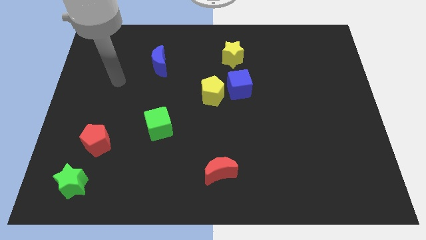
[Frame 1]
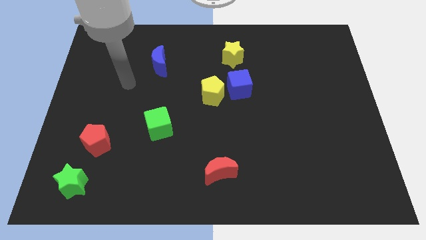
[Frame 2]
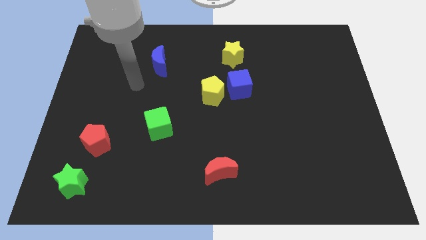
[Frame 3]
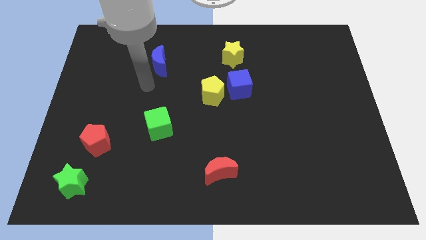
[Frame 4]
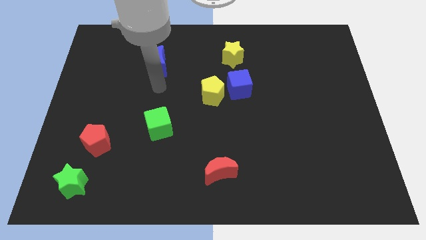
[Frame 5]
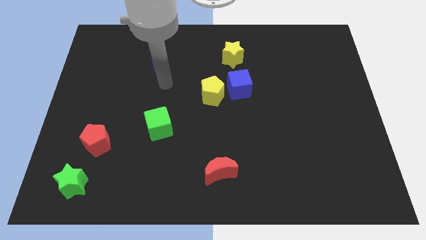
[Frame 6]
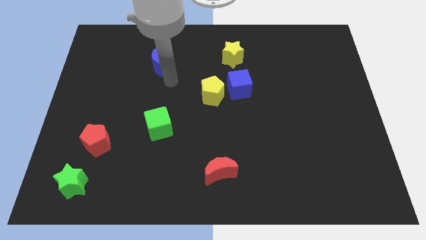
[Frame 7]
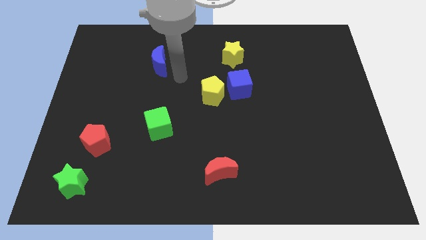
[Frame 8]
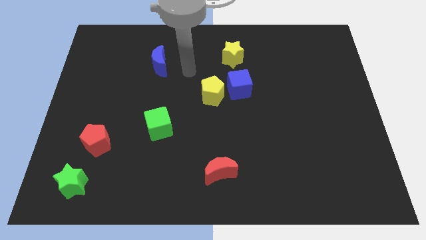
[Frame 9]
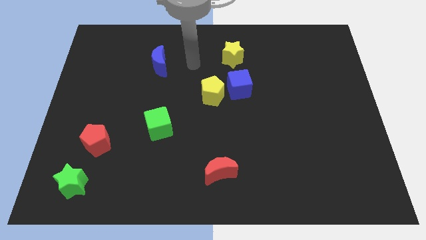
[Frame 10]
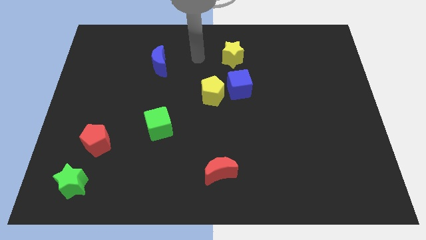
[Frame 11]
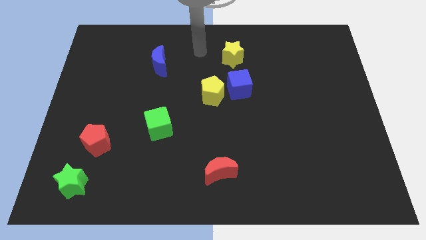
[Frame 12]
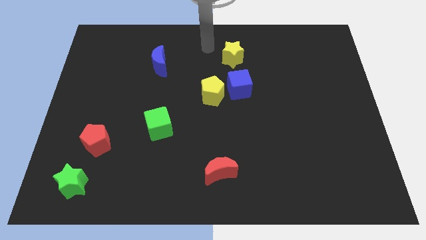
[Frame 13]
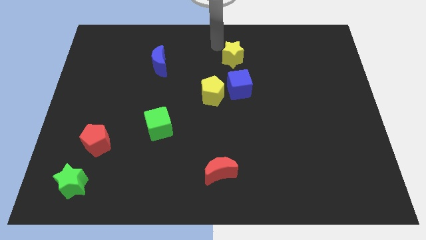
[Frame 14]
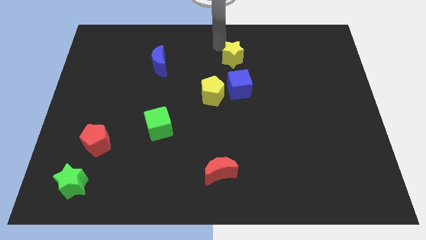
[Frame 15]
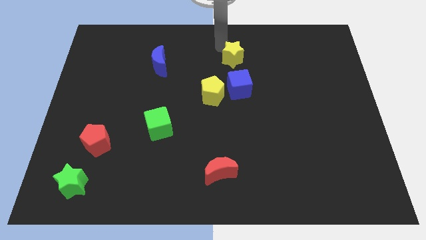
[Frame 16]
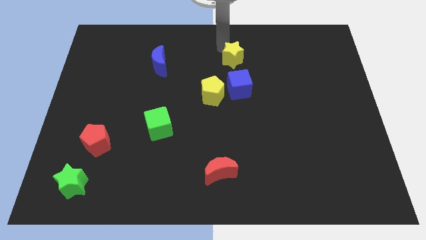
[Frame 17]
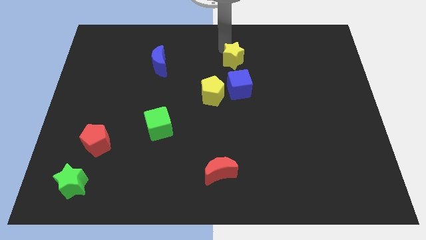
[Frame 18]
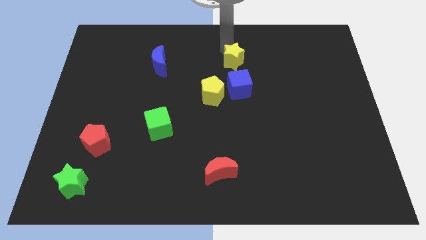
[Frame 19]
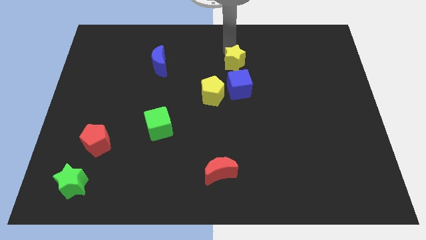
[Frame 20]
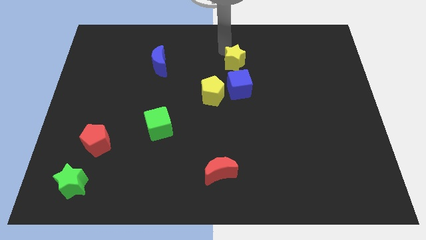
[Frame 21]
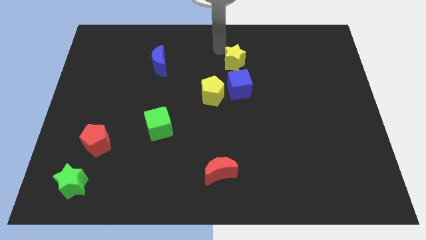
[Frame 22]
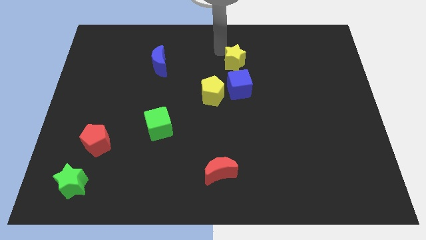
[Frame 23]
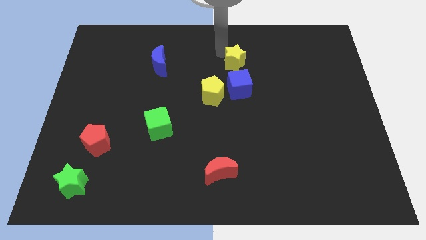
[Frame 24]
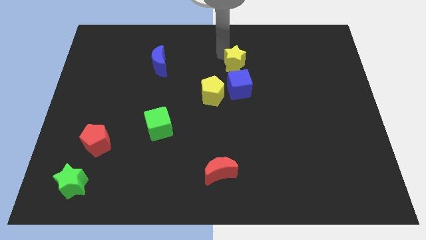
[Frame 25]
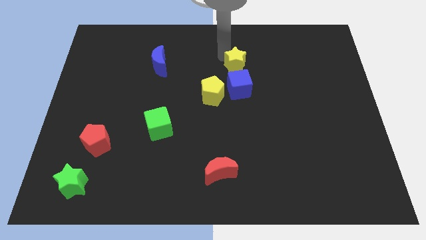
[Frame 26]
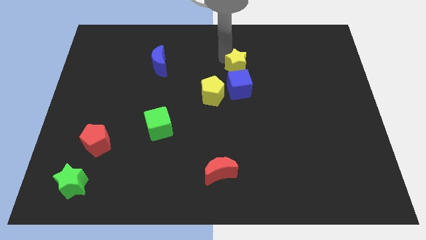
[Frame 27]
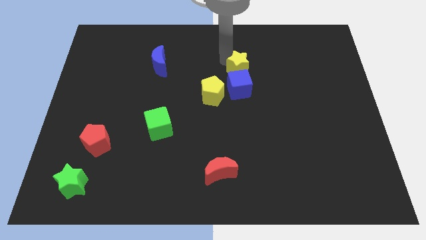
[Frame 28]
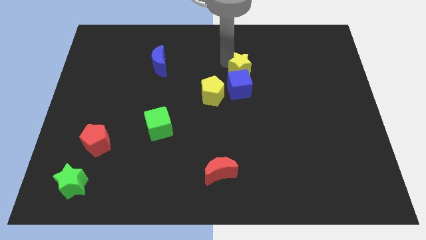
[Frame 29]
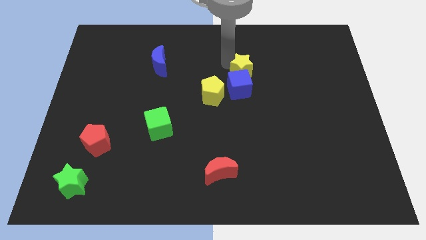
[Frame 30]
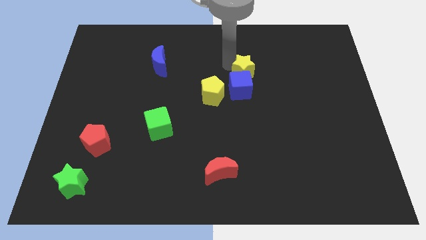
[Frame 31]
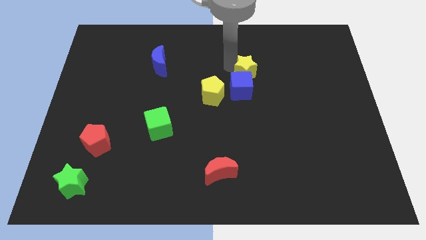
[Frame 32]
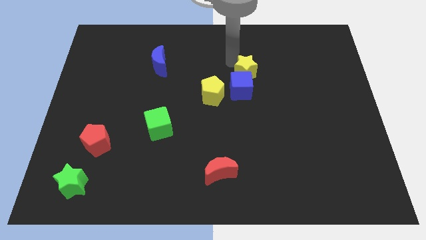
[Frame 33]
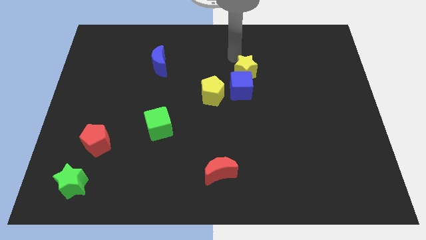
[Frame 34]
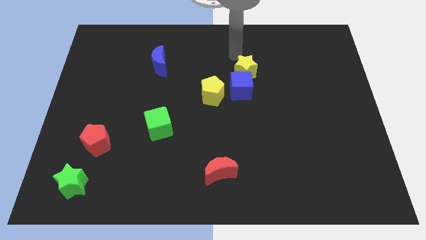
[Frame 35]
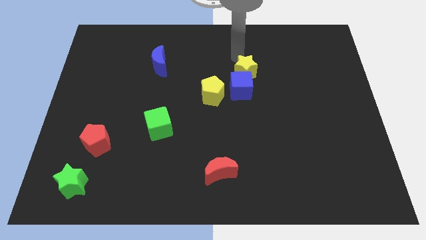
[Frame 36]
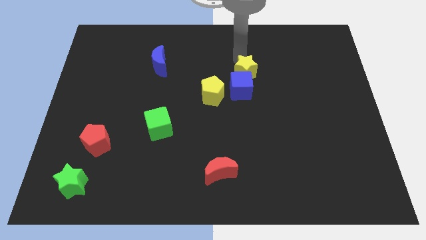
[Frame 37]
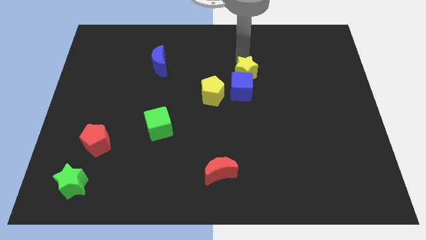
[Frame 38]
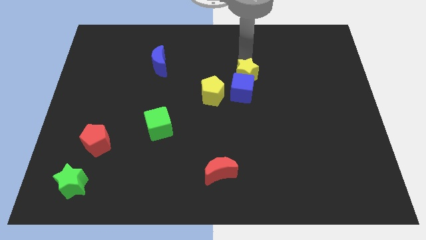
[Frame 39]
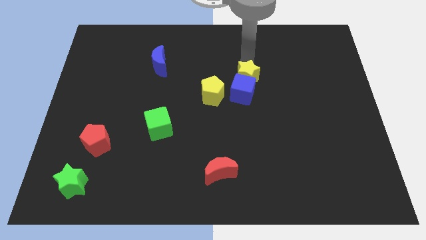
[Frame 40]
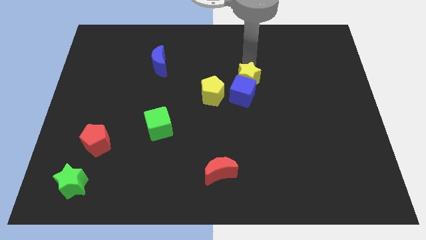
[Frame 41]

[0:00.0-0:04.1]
move the yellow star down somewhat

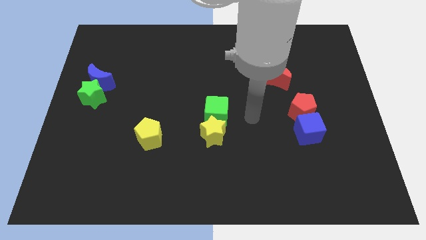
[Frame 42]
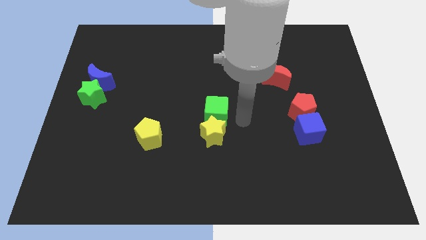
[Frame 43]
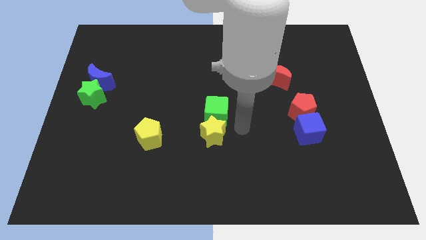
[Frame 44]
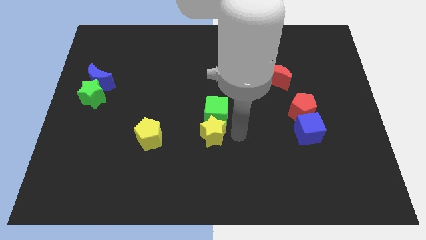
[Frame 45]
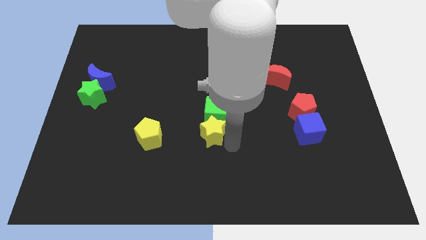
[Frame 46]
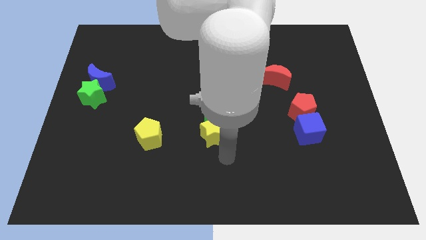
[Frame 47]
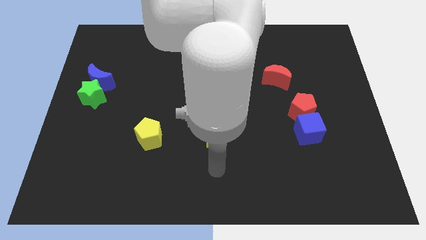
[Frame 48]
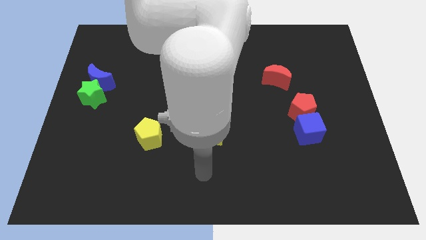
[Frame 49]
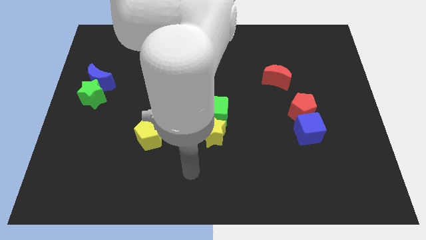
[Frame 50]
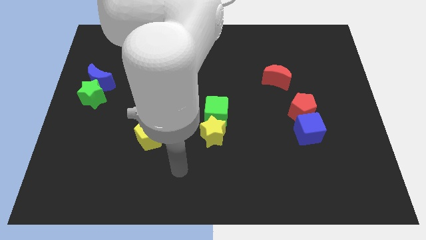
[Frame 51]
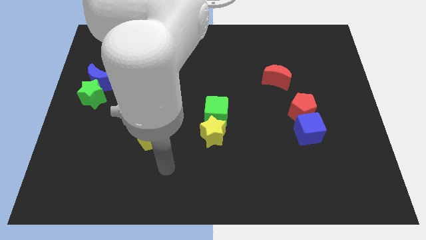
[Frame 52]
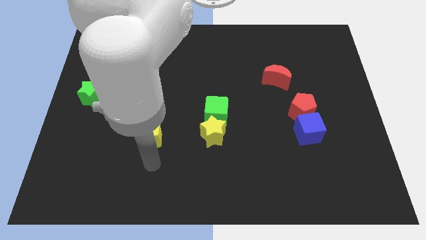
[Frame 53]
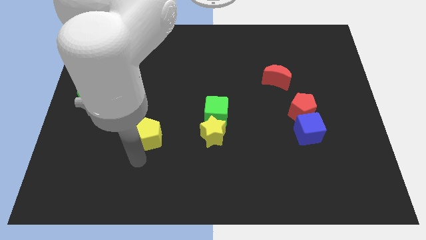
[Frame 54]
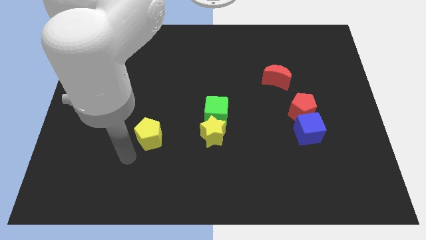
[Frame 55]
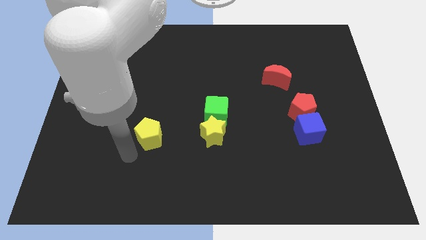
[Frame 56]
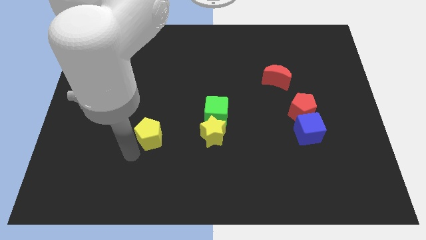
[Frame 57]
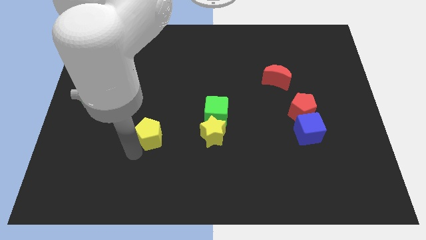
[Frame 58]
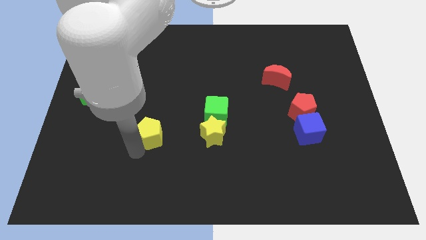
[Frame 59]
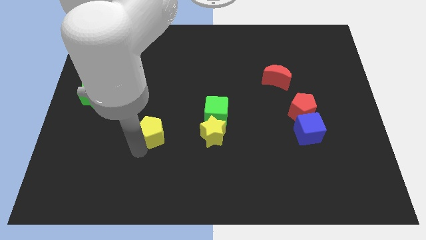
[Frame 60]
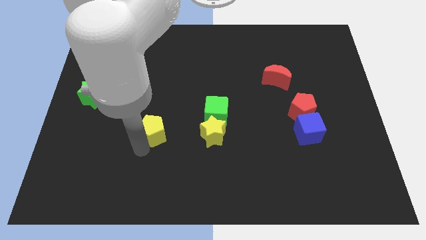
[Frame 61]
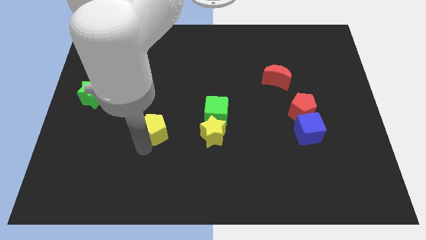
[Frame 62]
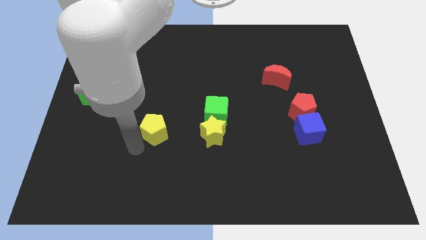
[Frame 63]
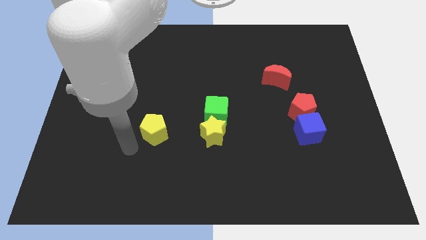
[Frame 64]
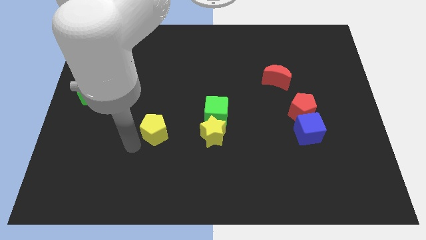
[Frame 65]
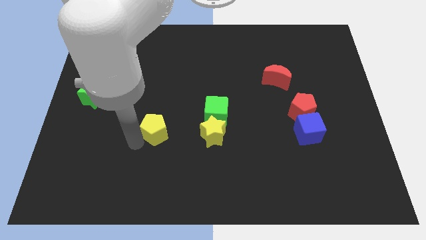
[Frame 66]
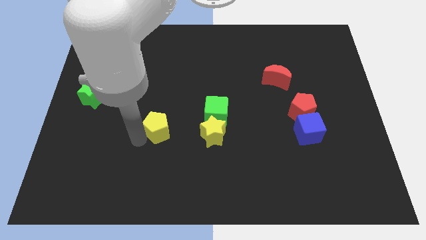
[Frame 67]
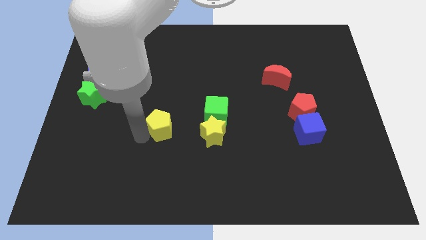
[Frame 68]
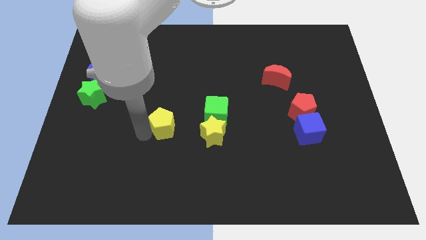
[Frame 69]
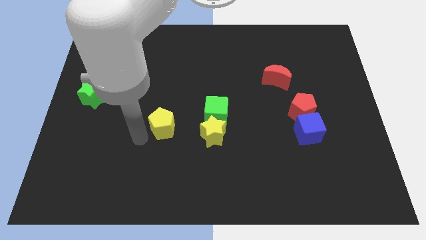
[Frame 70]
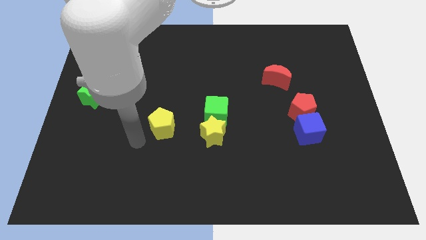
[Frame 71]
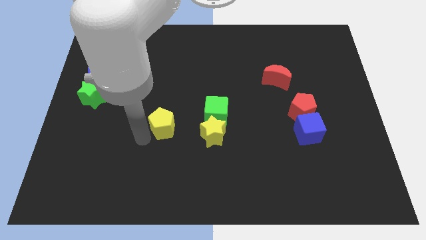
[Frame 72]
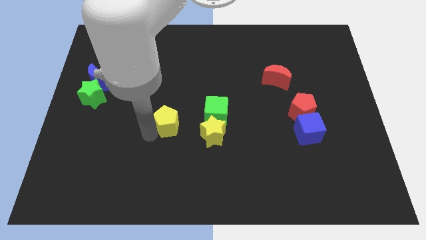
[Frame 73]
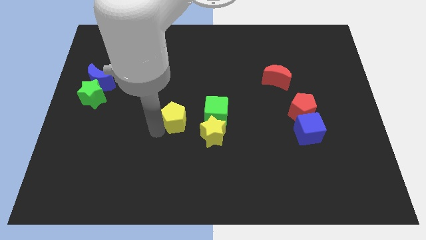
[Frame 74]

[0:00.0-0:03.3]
slightly slide the yellow pentagon up and right diagonally

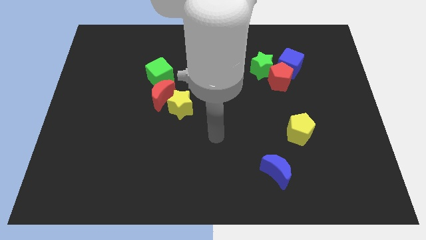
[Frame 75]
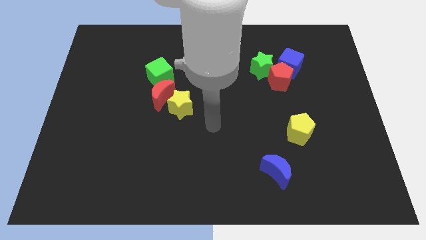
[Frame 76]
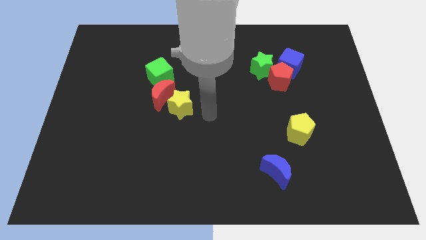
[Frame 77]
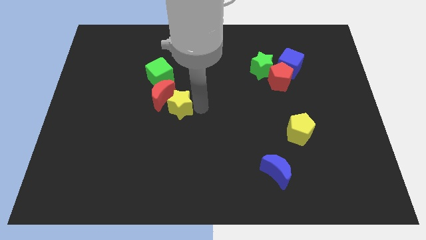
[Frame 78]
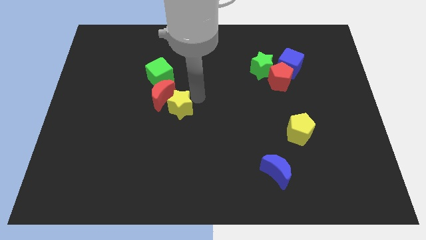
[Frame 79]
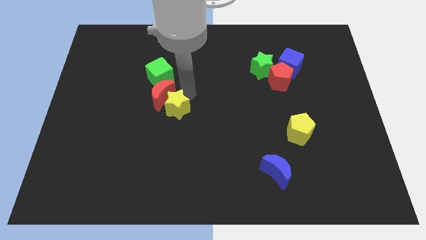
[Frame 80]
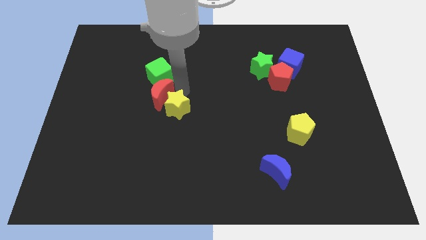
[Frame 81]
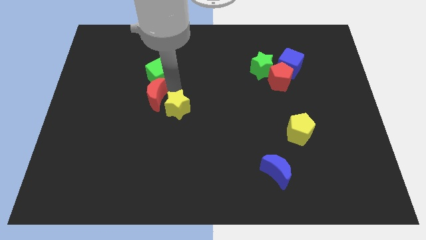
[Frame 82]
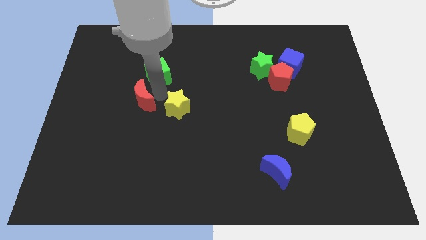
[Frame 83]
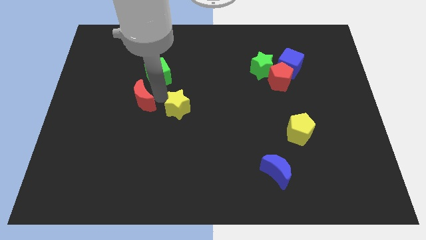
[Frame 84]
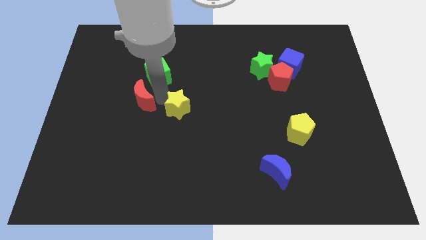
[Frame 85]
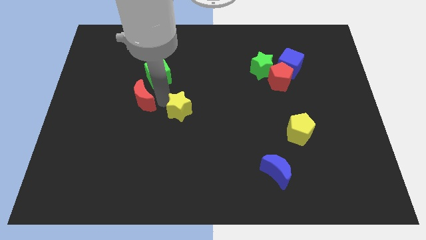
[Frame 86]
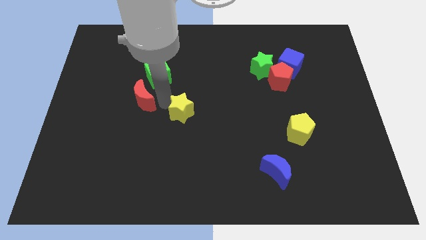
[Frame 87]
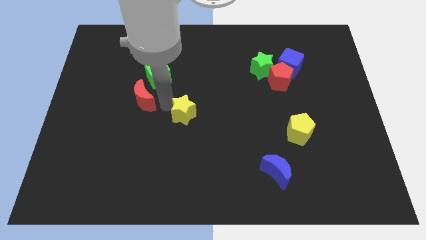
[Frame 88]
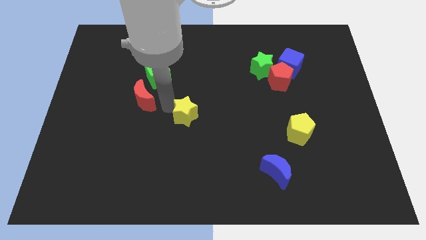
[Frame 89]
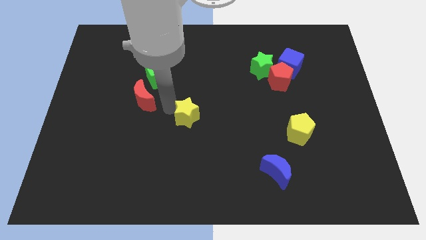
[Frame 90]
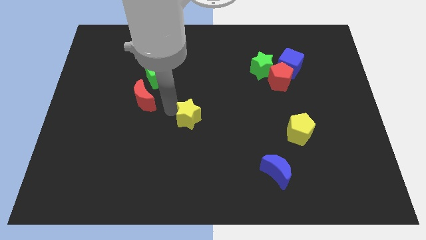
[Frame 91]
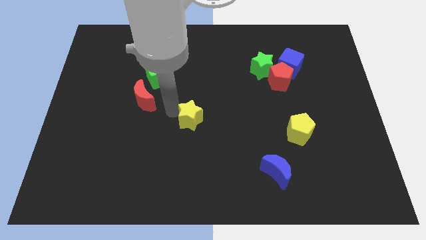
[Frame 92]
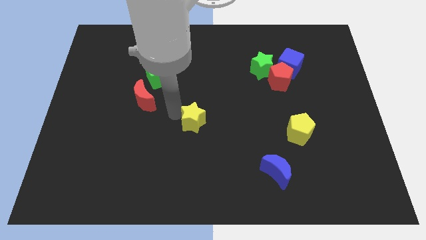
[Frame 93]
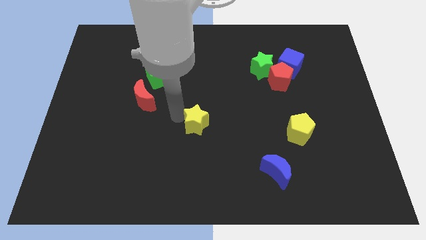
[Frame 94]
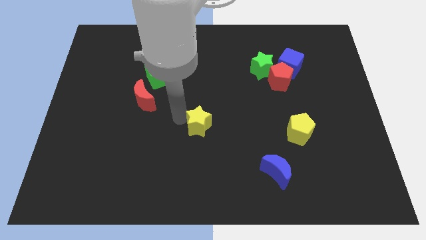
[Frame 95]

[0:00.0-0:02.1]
push the yellow star down and to the right a little bit
